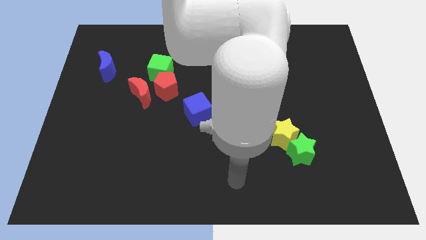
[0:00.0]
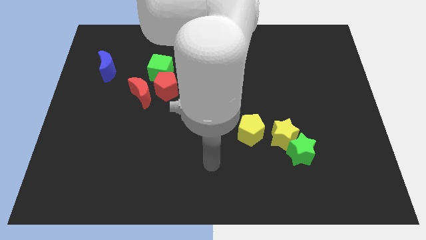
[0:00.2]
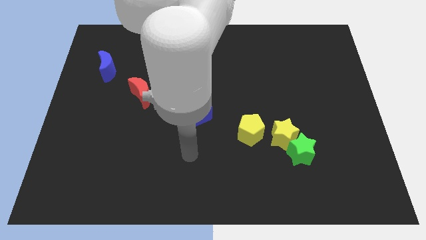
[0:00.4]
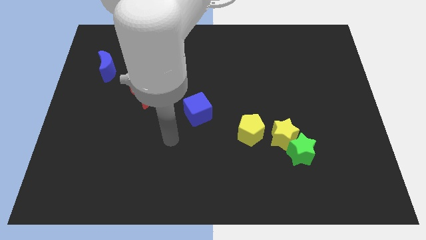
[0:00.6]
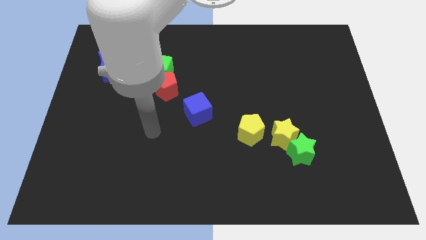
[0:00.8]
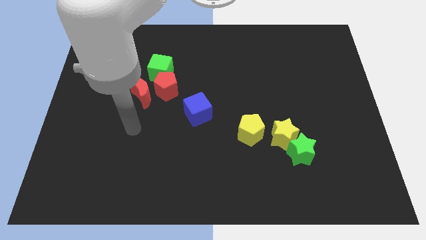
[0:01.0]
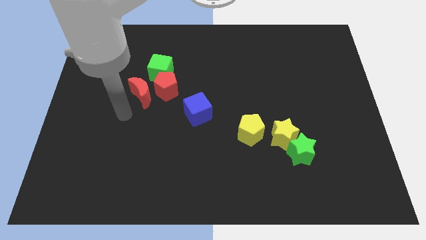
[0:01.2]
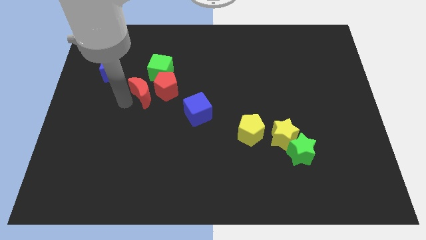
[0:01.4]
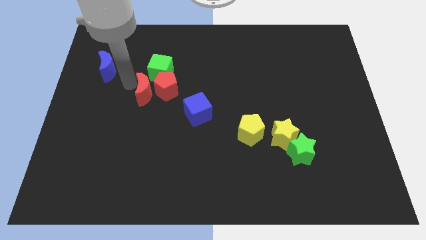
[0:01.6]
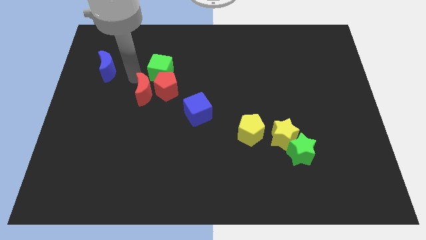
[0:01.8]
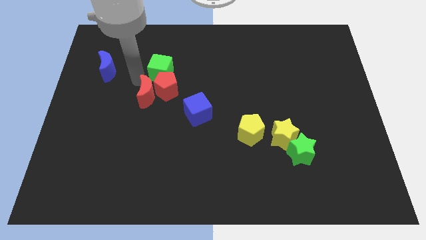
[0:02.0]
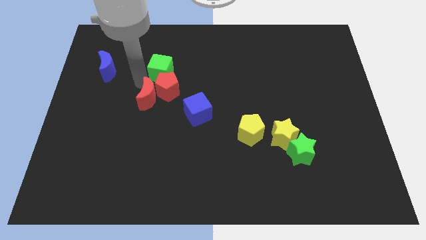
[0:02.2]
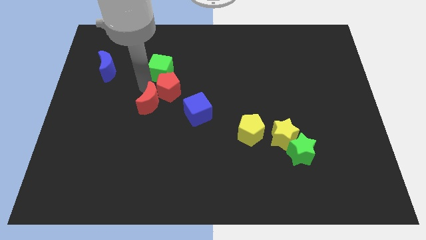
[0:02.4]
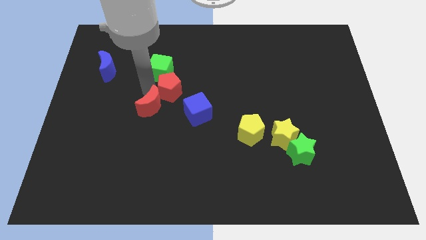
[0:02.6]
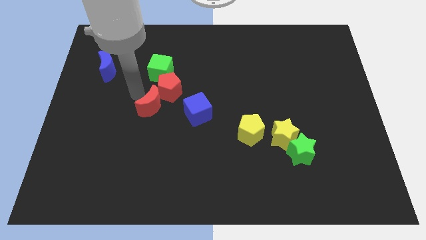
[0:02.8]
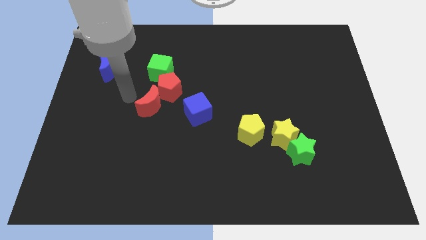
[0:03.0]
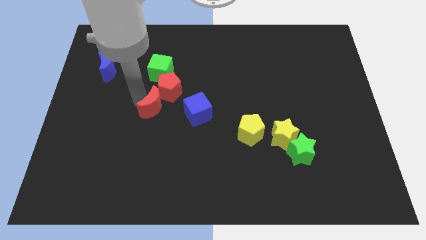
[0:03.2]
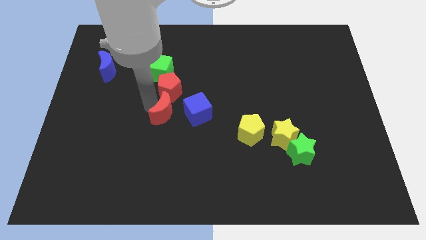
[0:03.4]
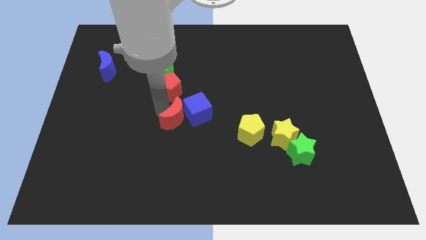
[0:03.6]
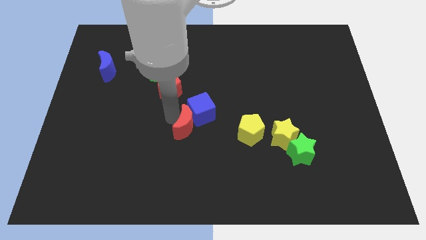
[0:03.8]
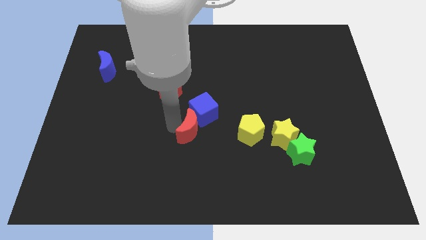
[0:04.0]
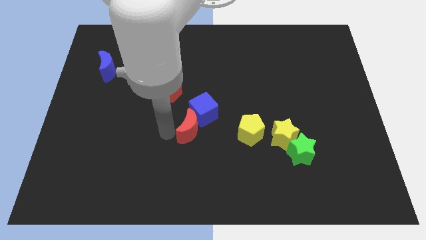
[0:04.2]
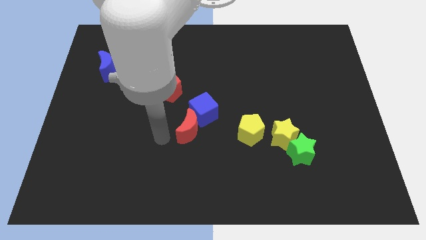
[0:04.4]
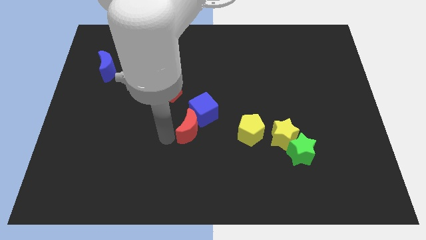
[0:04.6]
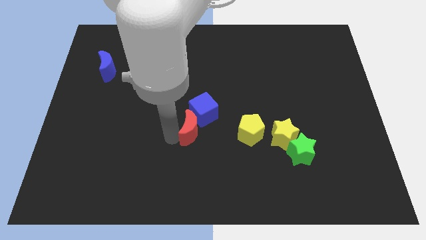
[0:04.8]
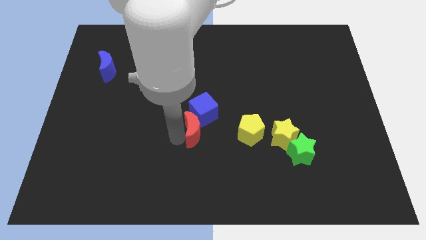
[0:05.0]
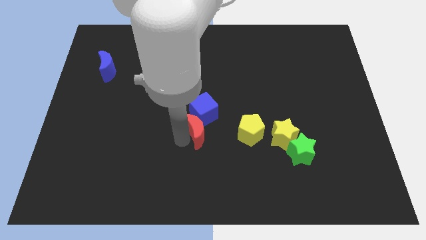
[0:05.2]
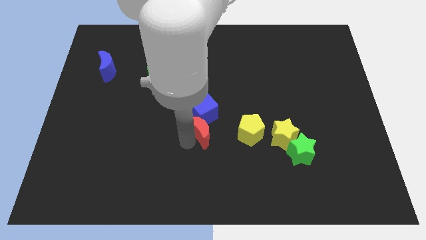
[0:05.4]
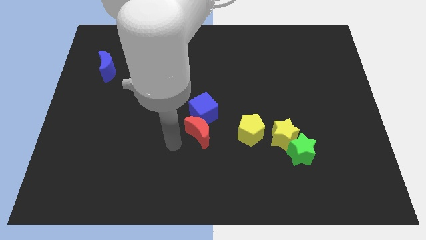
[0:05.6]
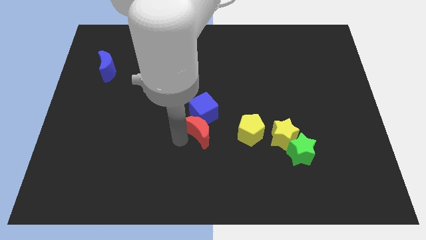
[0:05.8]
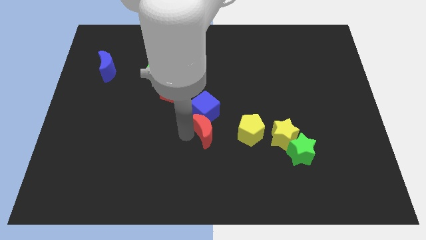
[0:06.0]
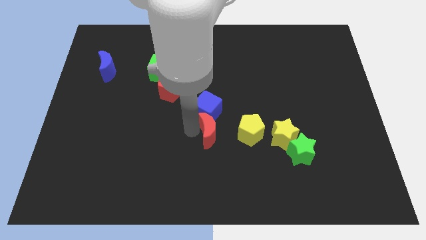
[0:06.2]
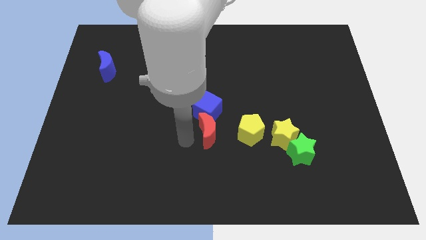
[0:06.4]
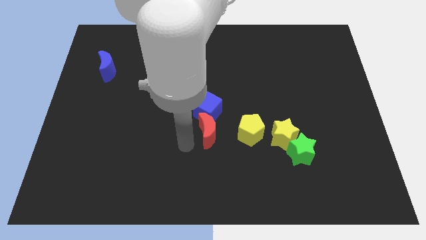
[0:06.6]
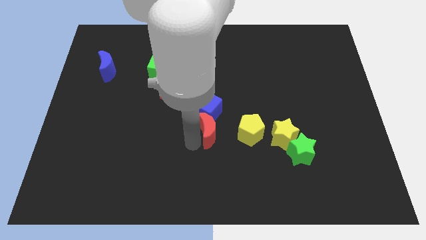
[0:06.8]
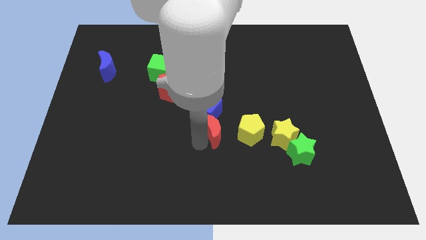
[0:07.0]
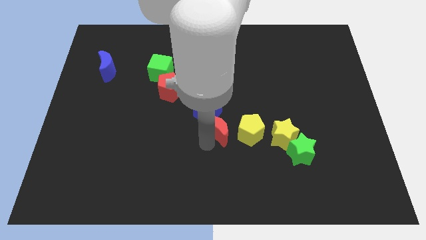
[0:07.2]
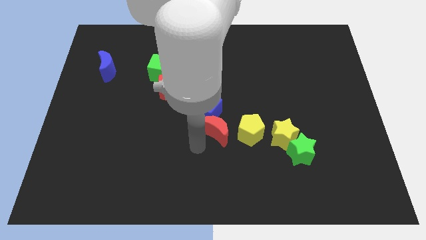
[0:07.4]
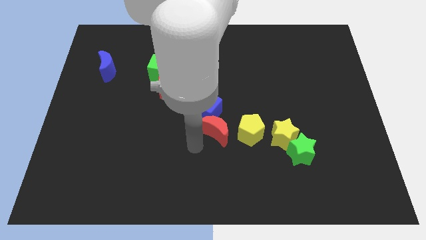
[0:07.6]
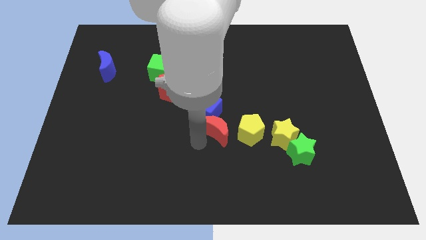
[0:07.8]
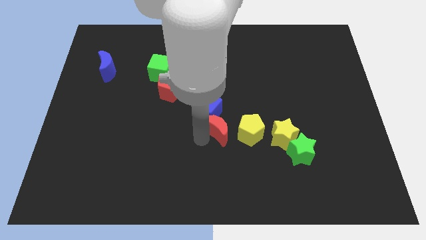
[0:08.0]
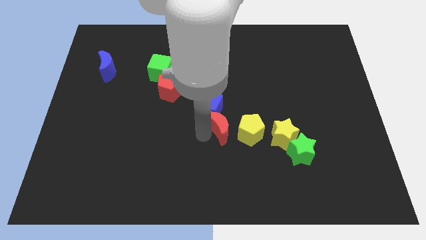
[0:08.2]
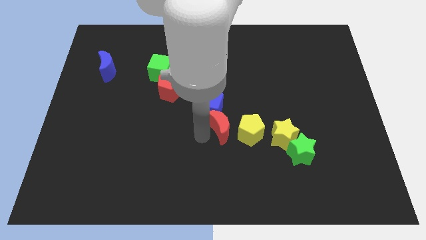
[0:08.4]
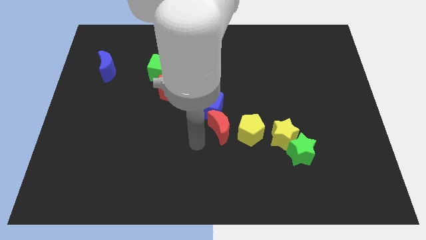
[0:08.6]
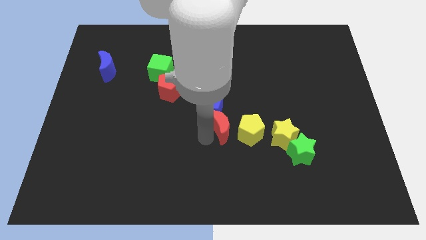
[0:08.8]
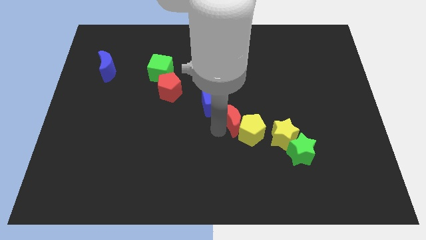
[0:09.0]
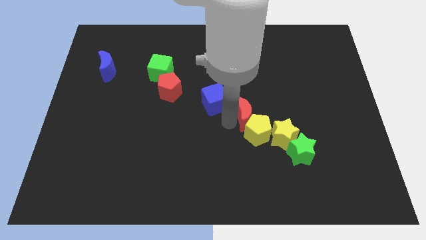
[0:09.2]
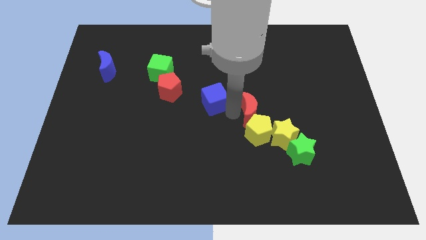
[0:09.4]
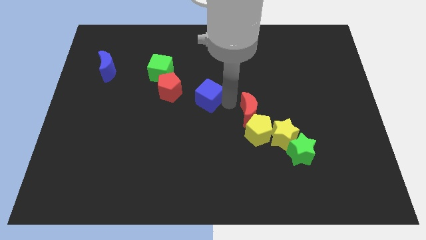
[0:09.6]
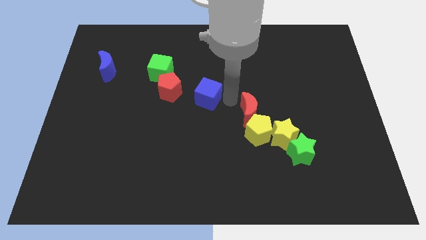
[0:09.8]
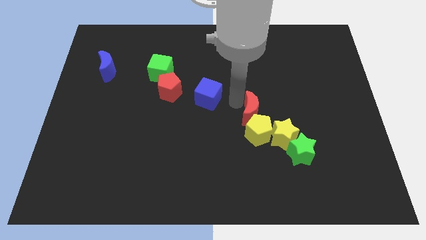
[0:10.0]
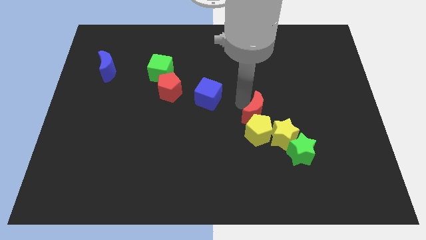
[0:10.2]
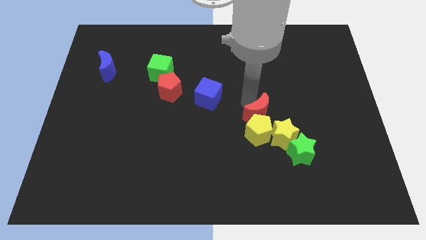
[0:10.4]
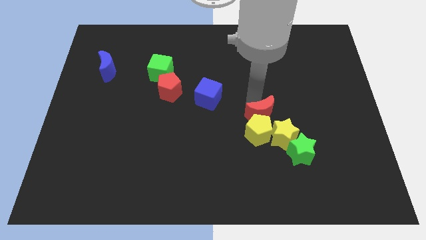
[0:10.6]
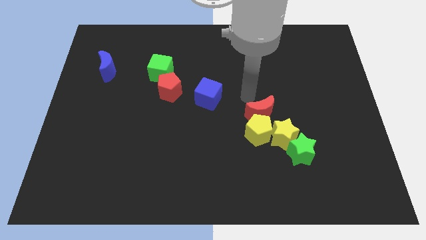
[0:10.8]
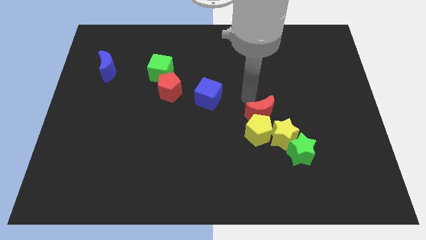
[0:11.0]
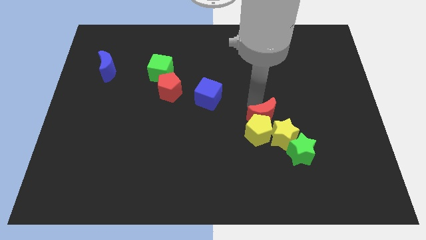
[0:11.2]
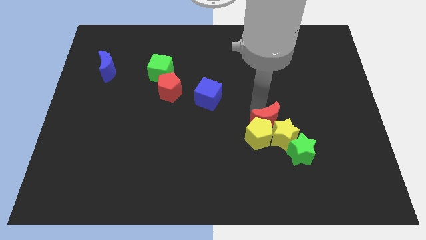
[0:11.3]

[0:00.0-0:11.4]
move the red moon next to the yellow star

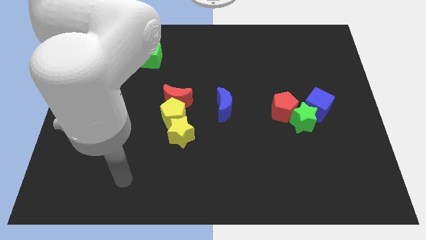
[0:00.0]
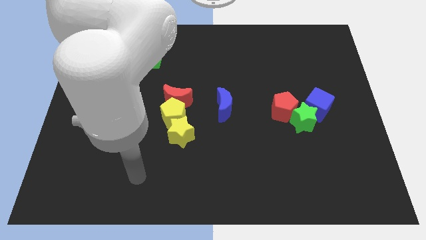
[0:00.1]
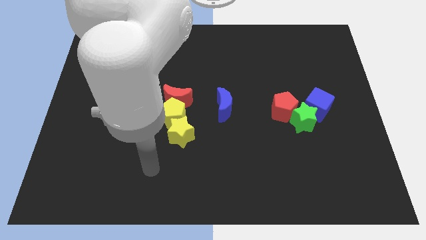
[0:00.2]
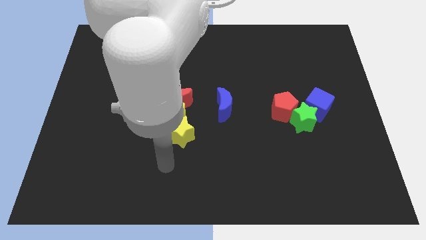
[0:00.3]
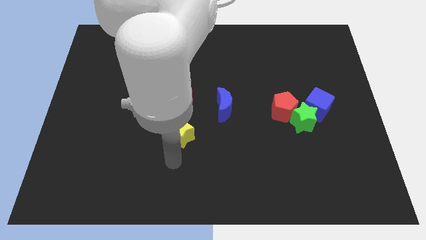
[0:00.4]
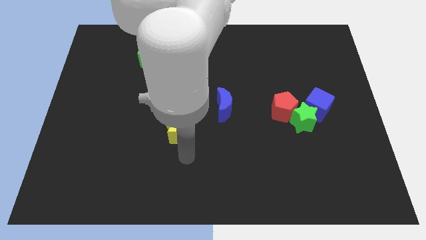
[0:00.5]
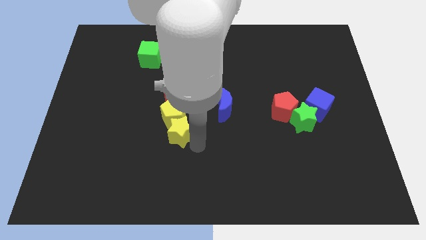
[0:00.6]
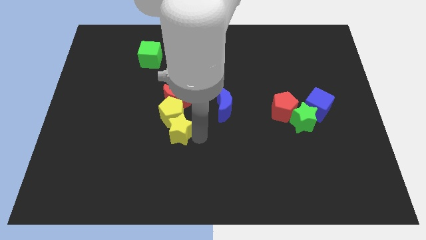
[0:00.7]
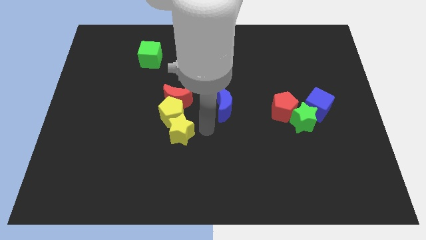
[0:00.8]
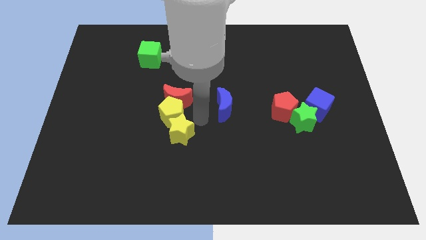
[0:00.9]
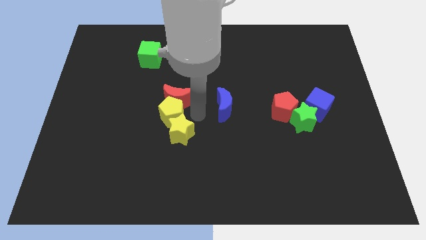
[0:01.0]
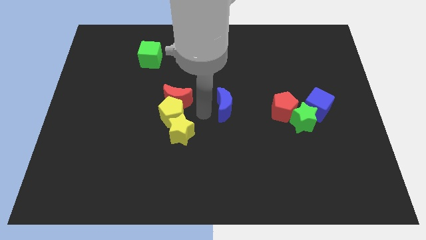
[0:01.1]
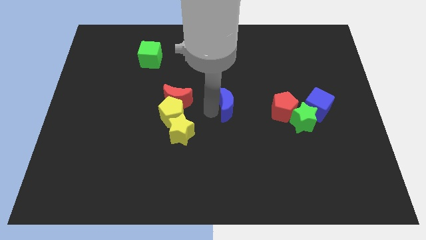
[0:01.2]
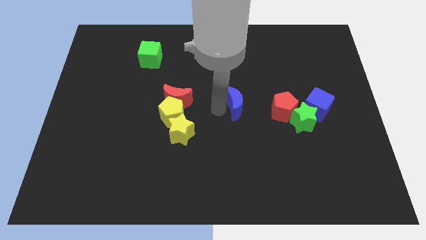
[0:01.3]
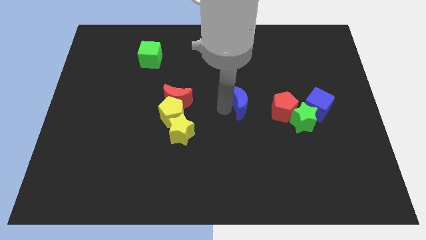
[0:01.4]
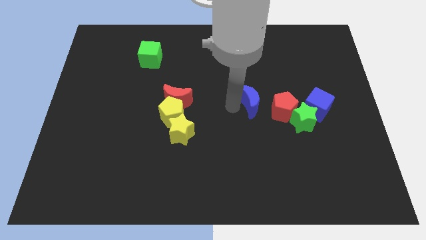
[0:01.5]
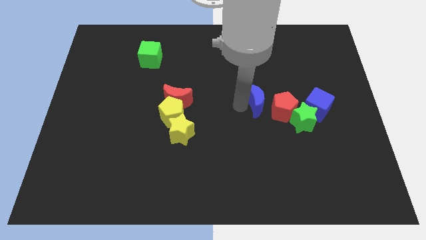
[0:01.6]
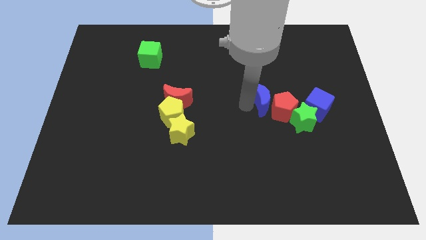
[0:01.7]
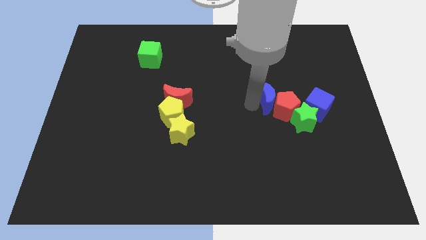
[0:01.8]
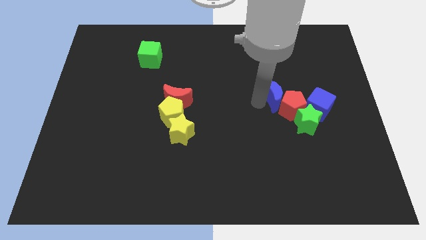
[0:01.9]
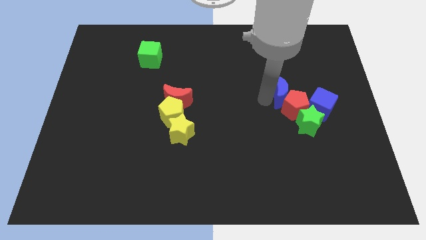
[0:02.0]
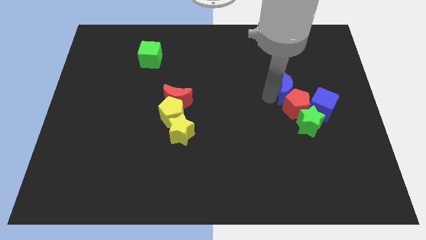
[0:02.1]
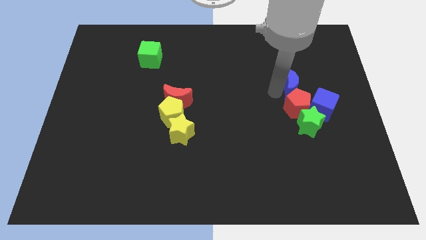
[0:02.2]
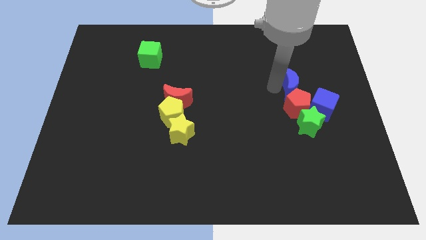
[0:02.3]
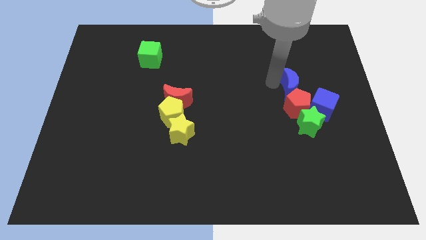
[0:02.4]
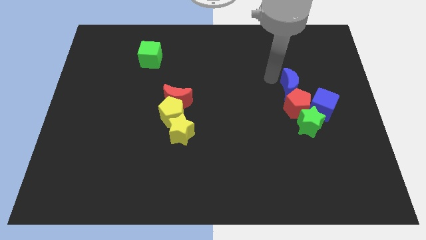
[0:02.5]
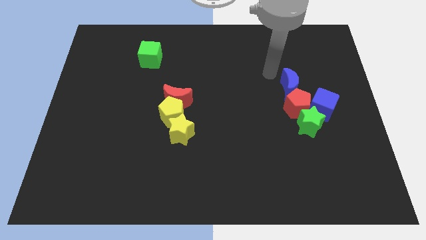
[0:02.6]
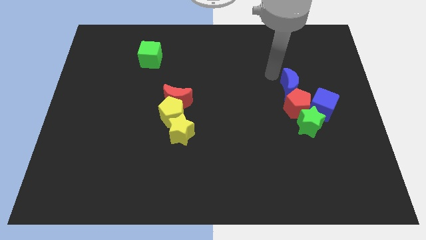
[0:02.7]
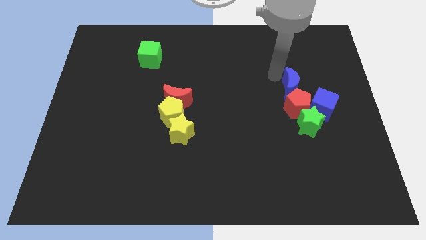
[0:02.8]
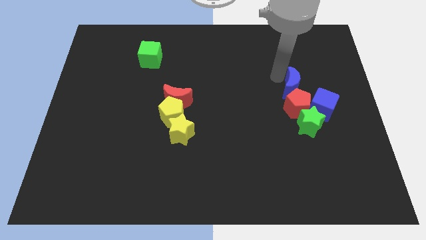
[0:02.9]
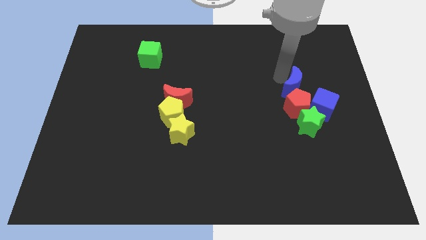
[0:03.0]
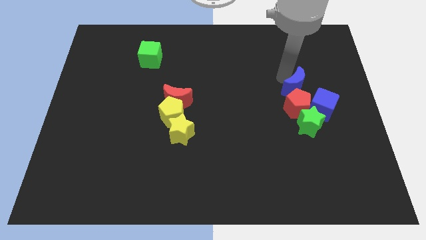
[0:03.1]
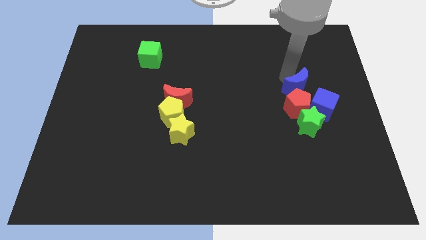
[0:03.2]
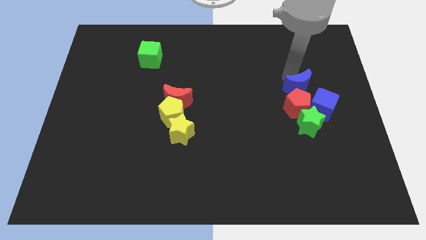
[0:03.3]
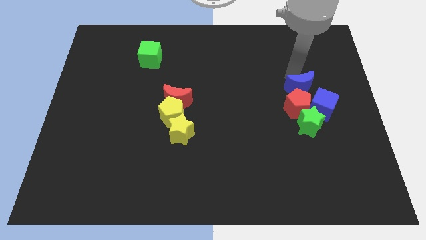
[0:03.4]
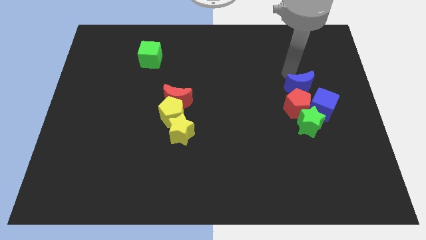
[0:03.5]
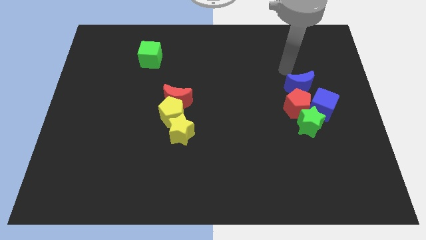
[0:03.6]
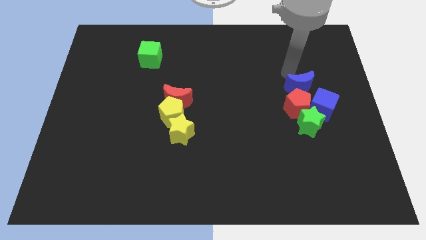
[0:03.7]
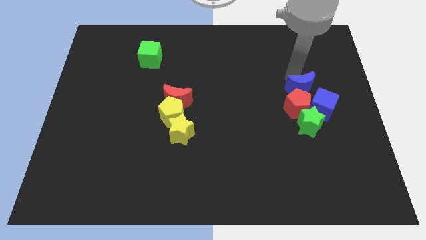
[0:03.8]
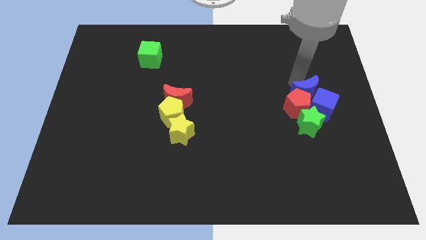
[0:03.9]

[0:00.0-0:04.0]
move the blue moon to the blue cube
